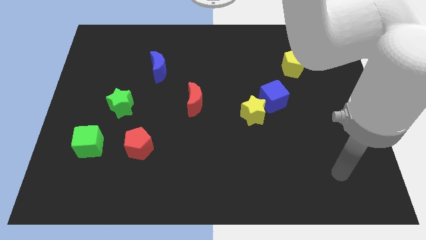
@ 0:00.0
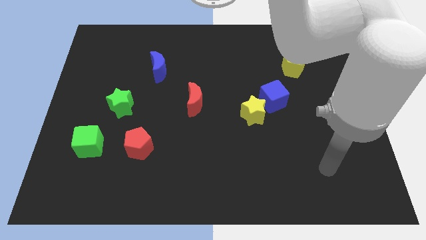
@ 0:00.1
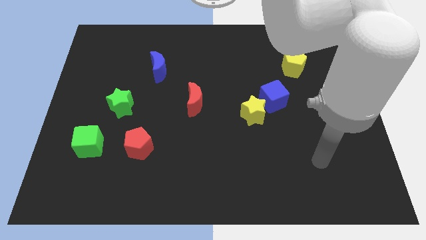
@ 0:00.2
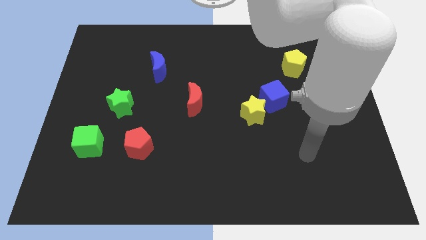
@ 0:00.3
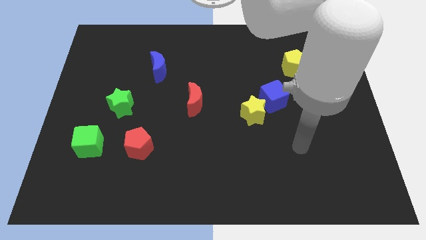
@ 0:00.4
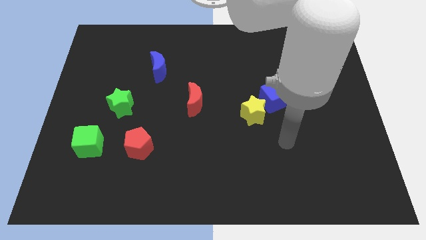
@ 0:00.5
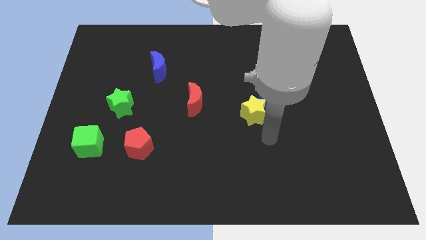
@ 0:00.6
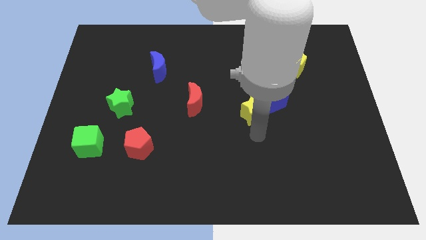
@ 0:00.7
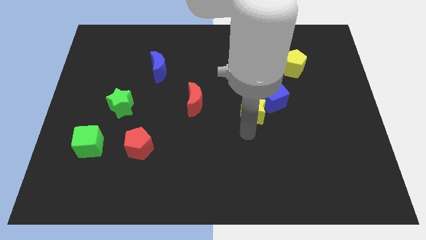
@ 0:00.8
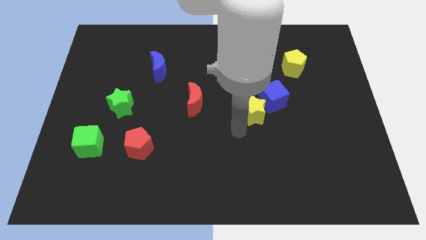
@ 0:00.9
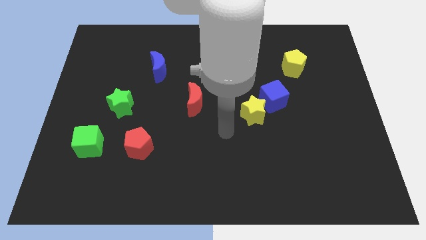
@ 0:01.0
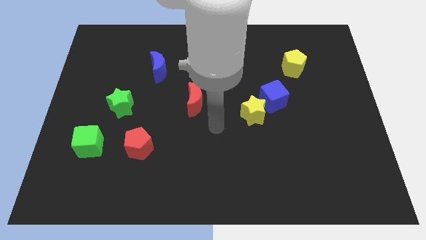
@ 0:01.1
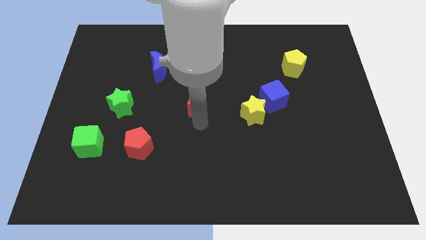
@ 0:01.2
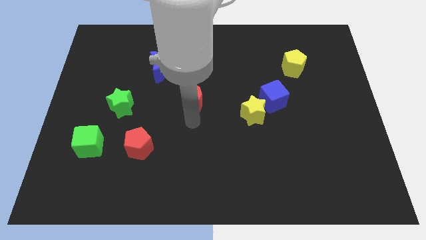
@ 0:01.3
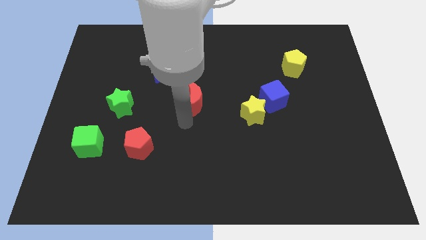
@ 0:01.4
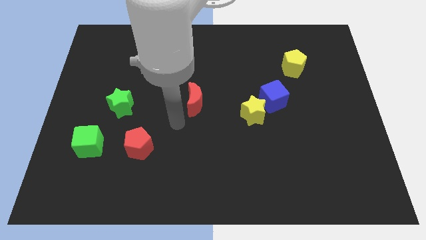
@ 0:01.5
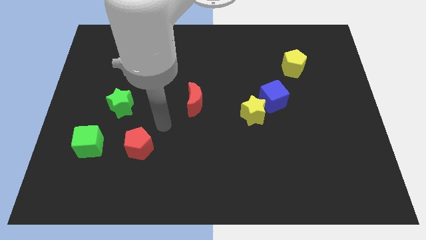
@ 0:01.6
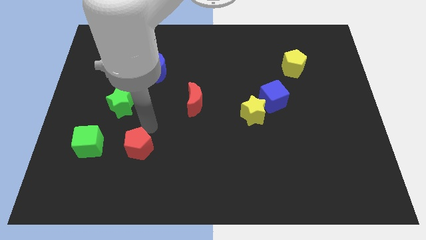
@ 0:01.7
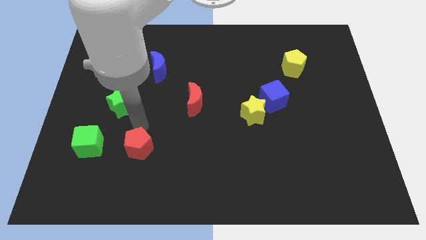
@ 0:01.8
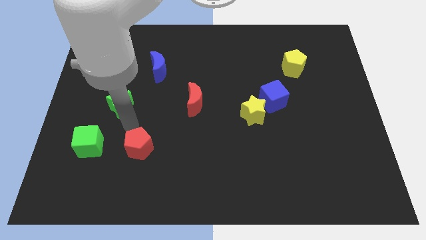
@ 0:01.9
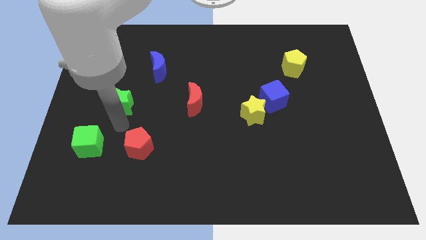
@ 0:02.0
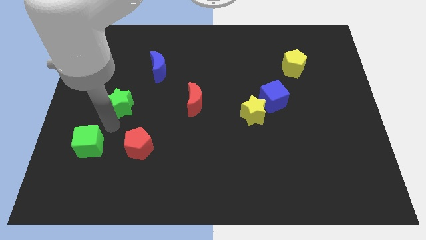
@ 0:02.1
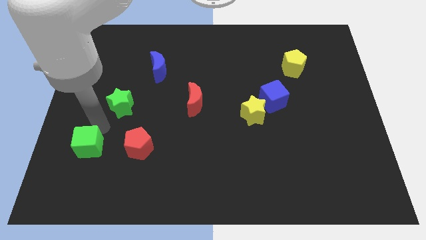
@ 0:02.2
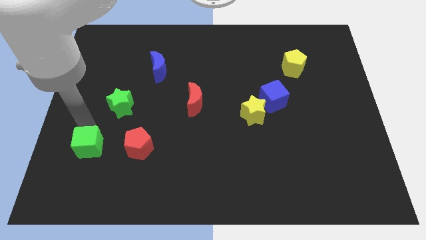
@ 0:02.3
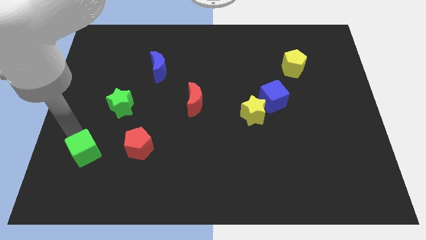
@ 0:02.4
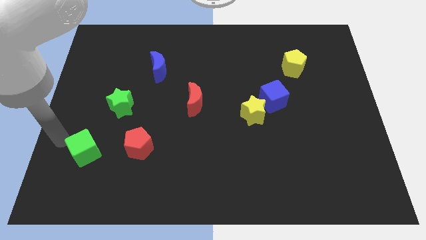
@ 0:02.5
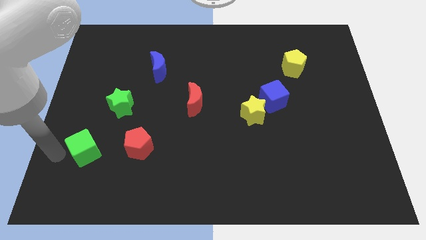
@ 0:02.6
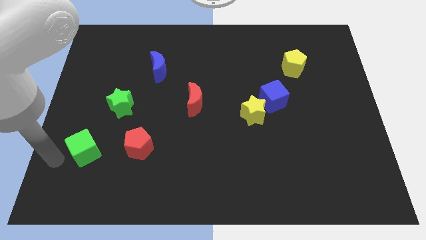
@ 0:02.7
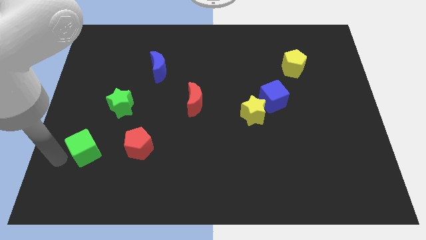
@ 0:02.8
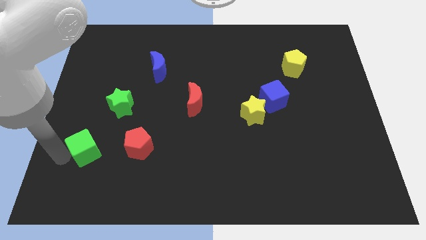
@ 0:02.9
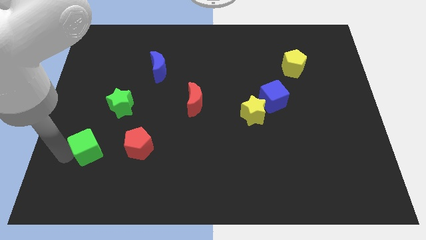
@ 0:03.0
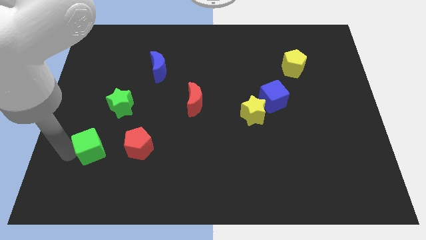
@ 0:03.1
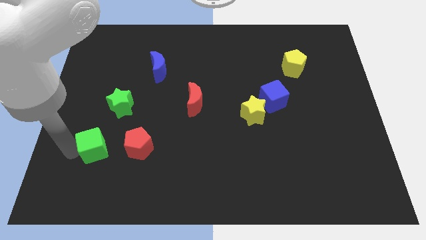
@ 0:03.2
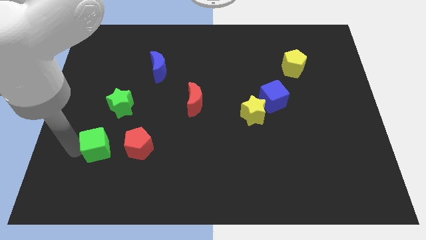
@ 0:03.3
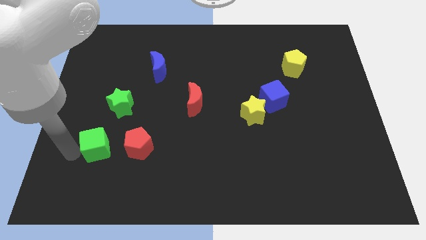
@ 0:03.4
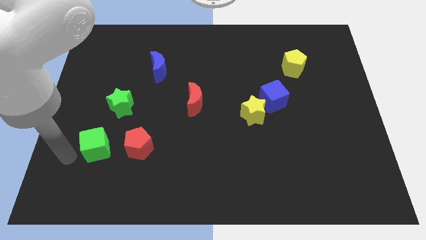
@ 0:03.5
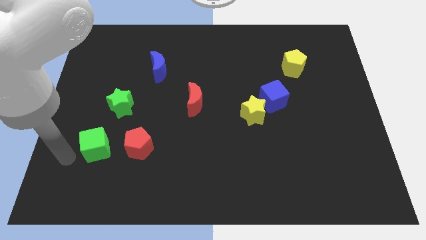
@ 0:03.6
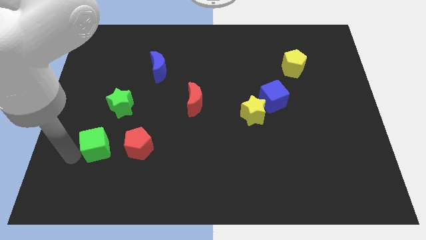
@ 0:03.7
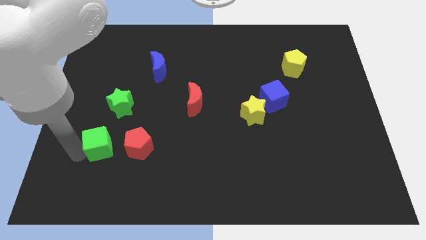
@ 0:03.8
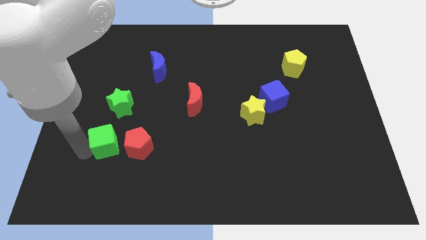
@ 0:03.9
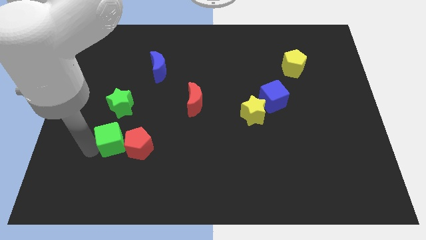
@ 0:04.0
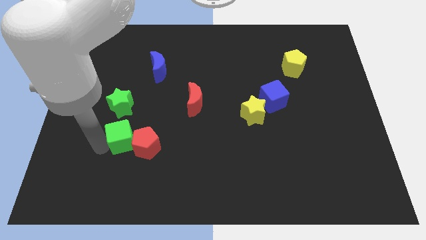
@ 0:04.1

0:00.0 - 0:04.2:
slide the green cube a bit to the right

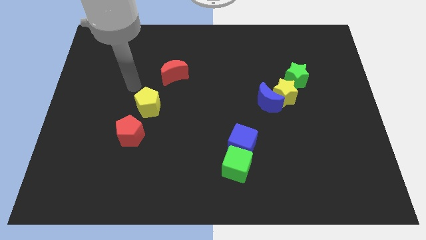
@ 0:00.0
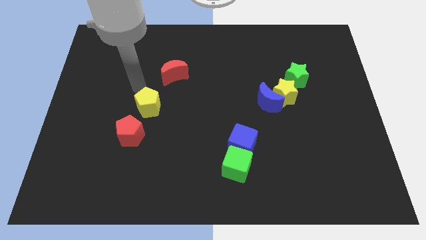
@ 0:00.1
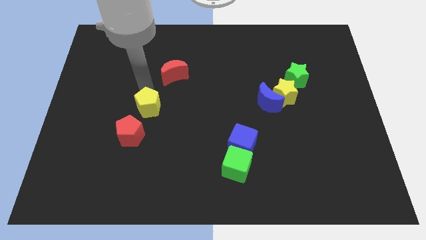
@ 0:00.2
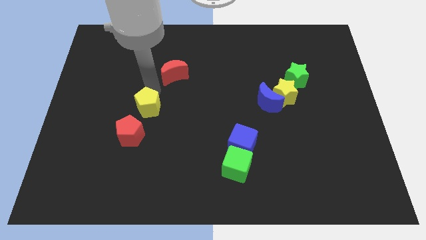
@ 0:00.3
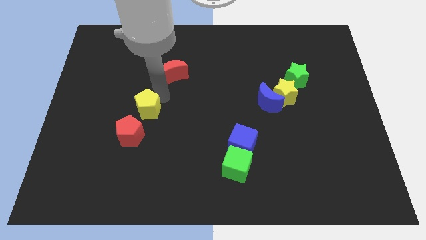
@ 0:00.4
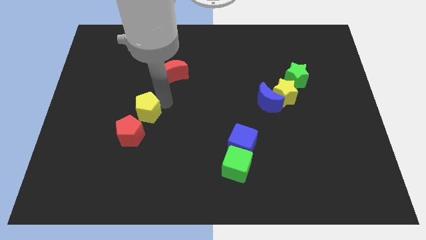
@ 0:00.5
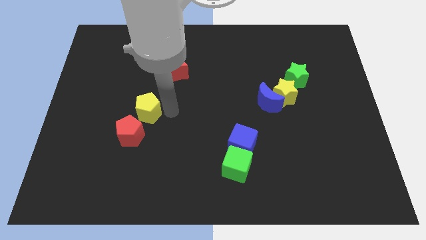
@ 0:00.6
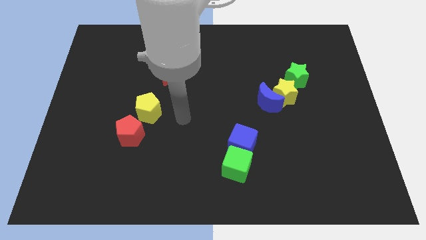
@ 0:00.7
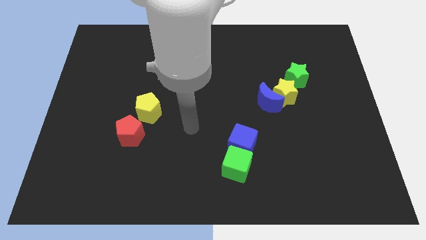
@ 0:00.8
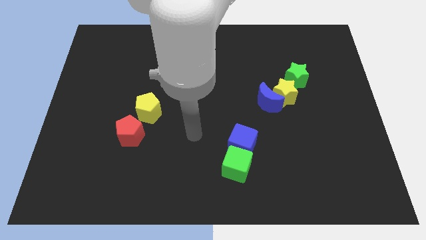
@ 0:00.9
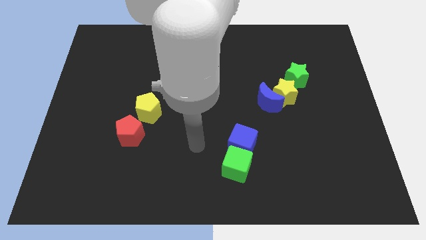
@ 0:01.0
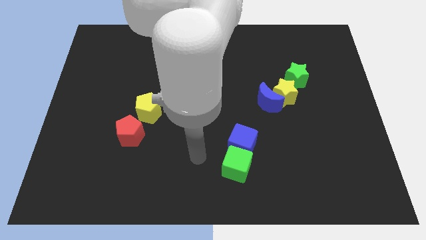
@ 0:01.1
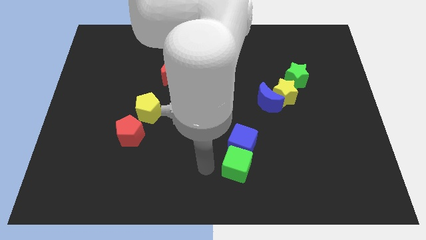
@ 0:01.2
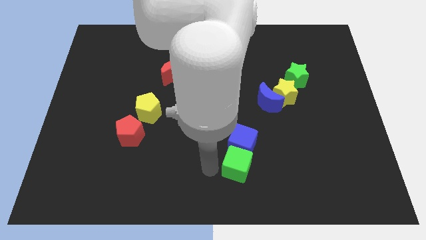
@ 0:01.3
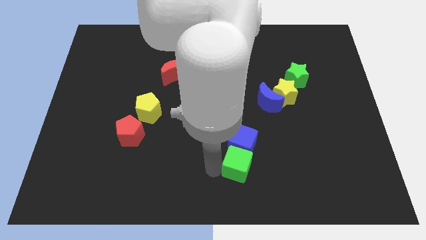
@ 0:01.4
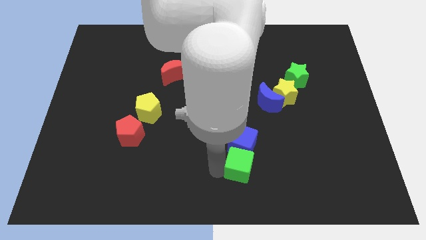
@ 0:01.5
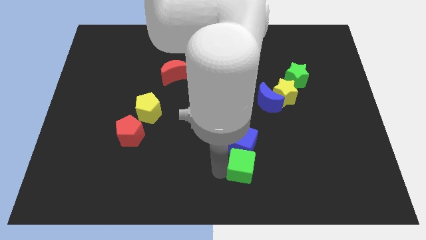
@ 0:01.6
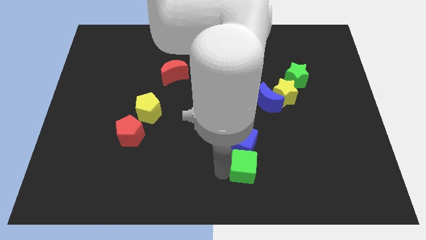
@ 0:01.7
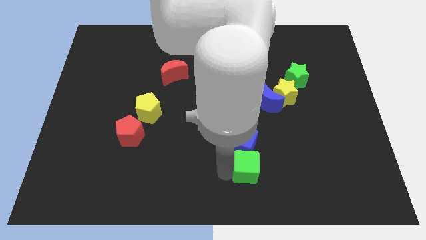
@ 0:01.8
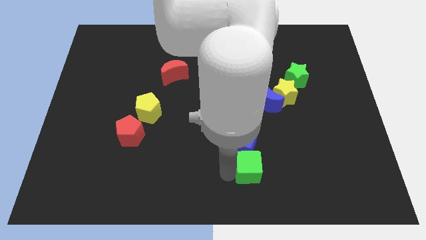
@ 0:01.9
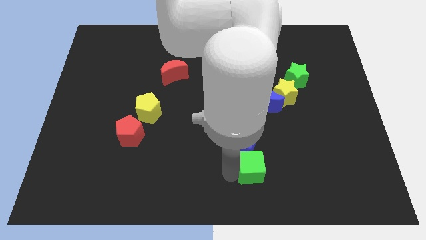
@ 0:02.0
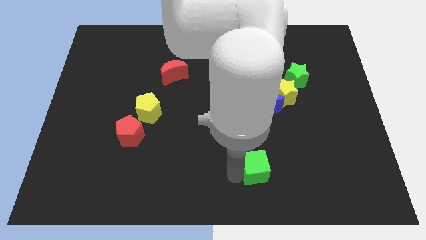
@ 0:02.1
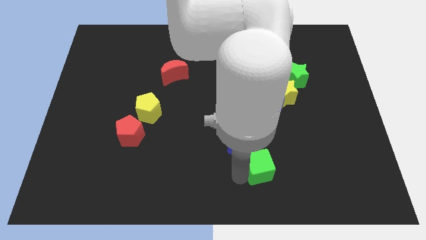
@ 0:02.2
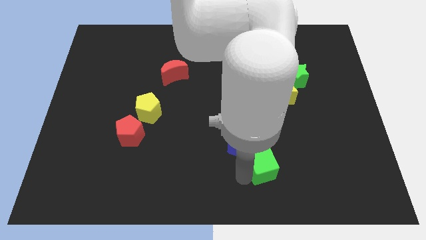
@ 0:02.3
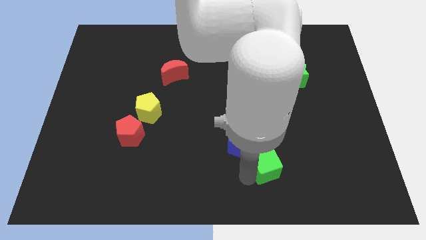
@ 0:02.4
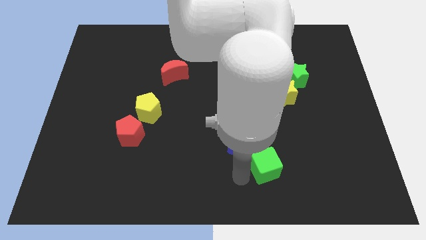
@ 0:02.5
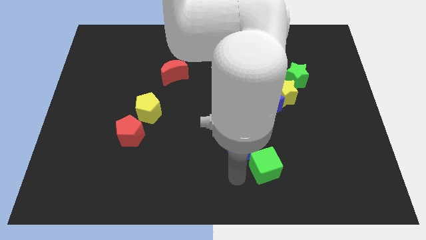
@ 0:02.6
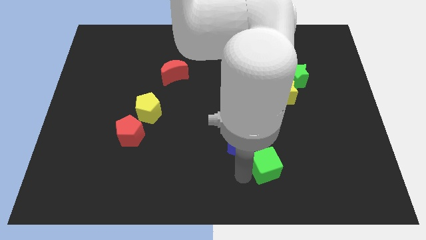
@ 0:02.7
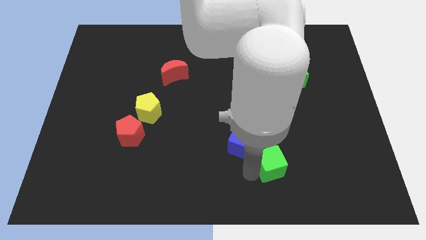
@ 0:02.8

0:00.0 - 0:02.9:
slide the green cube right a bit

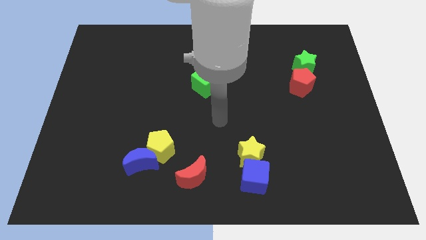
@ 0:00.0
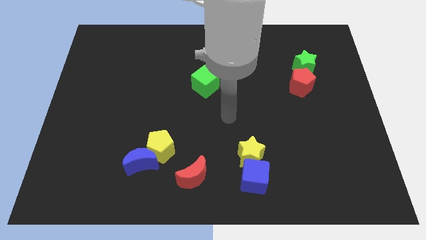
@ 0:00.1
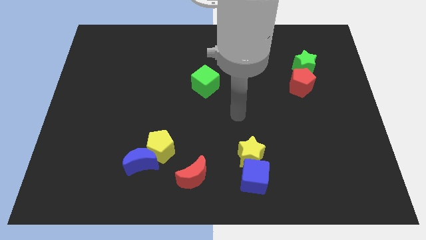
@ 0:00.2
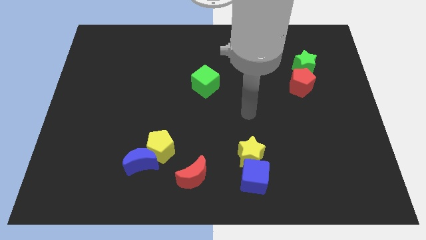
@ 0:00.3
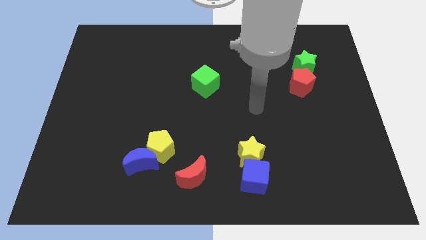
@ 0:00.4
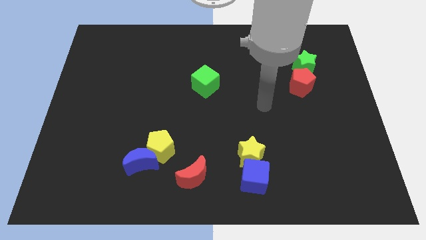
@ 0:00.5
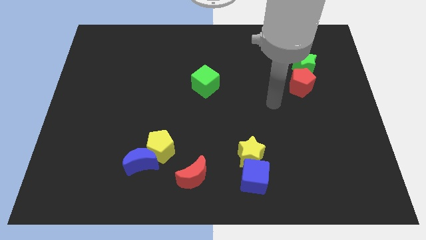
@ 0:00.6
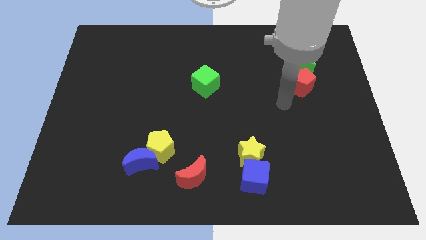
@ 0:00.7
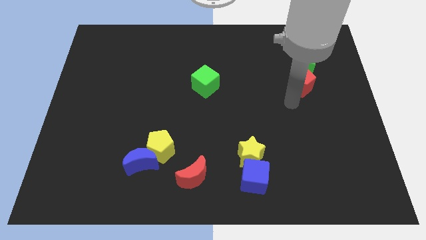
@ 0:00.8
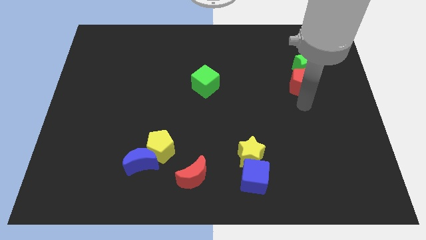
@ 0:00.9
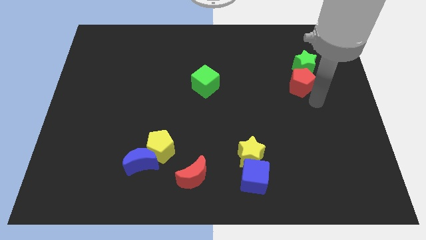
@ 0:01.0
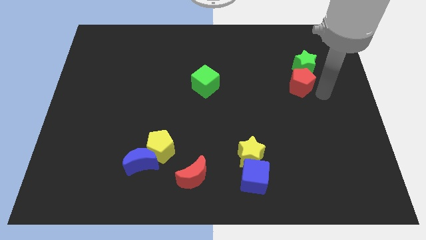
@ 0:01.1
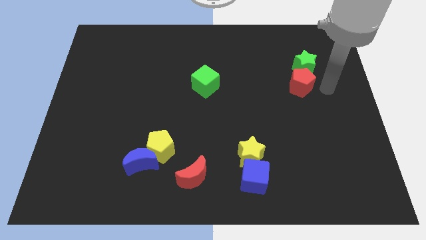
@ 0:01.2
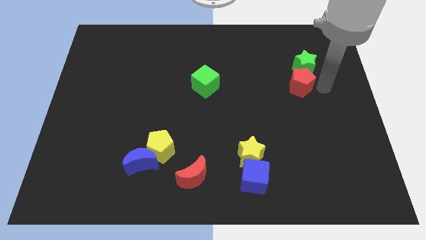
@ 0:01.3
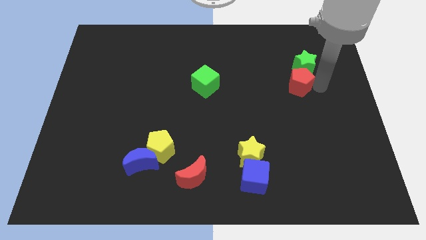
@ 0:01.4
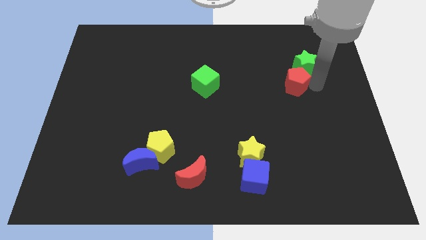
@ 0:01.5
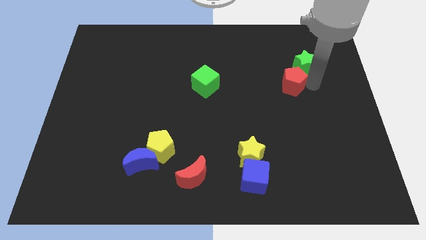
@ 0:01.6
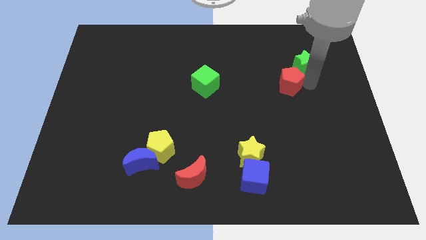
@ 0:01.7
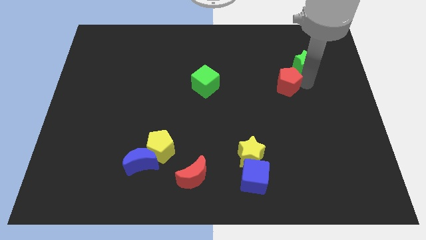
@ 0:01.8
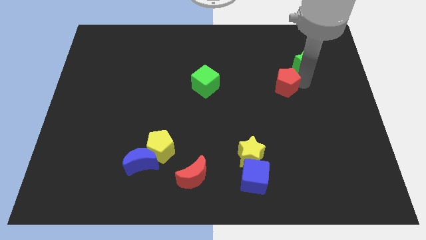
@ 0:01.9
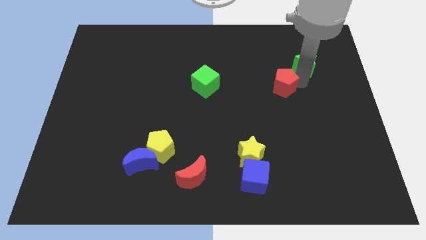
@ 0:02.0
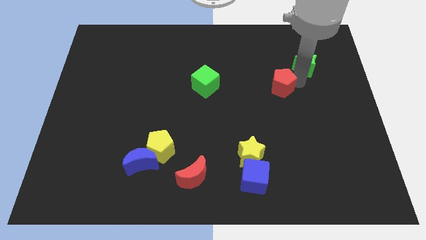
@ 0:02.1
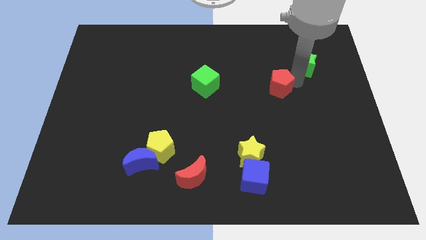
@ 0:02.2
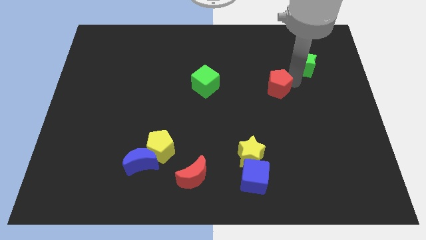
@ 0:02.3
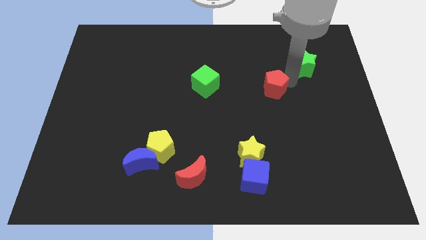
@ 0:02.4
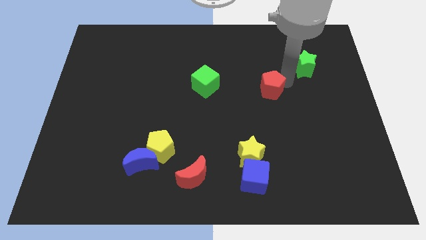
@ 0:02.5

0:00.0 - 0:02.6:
move the red pentagon left somewhat
